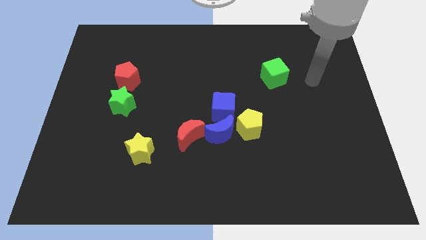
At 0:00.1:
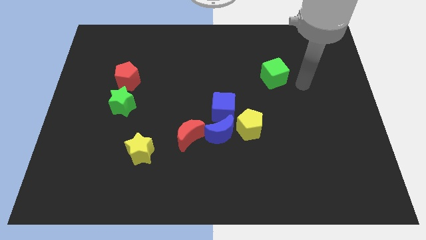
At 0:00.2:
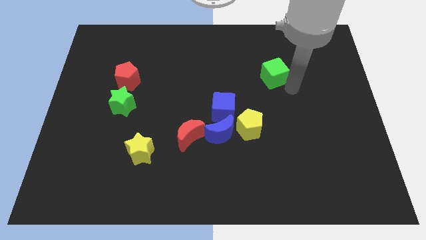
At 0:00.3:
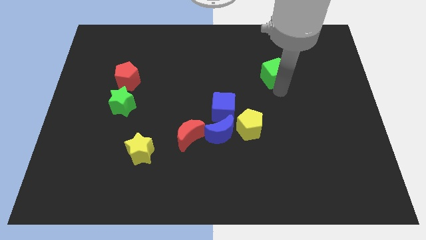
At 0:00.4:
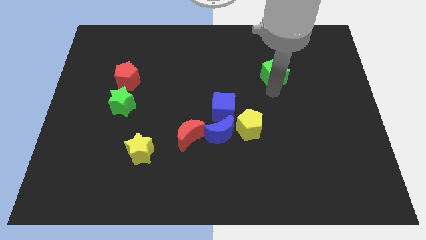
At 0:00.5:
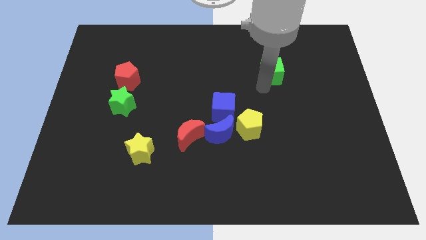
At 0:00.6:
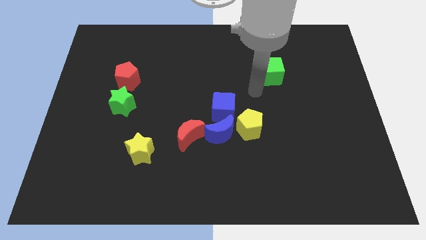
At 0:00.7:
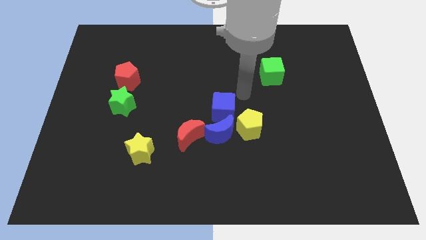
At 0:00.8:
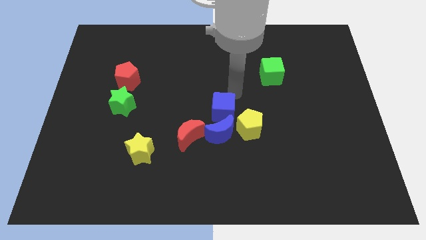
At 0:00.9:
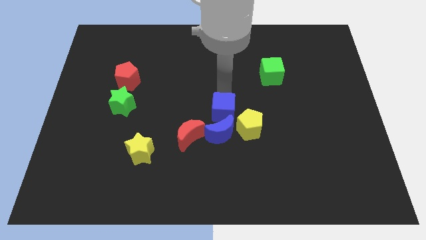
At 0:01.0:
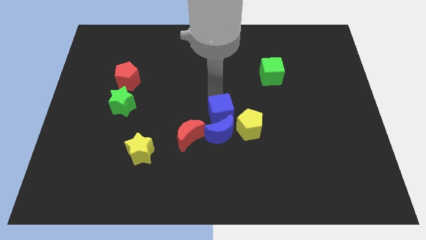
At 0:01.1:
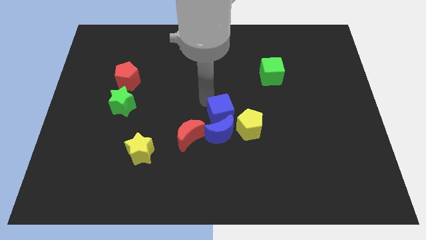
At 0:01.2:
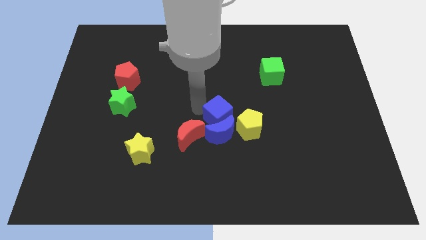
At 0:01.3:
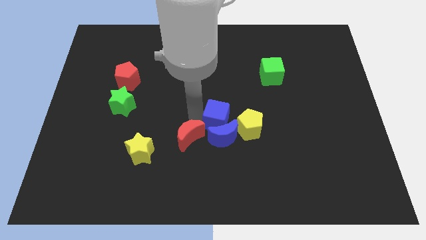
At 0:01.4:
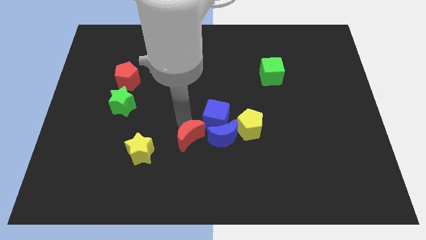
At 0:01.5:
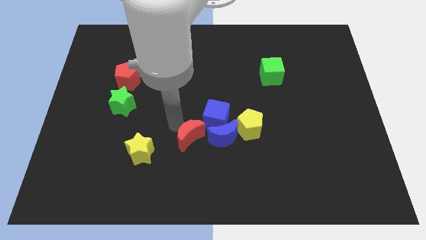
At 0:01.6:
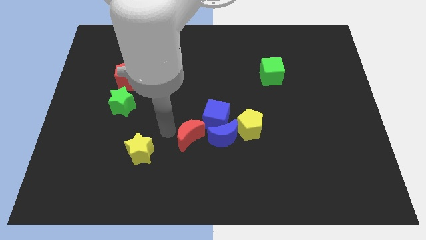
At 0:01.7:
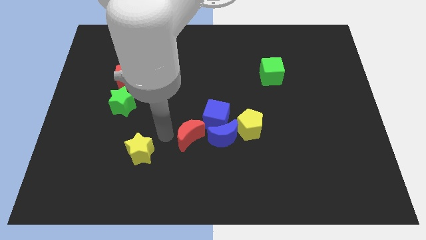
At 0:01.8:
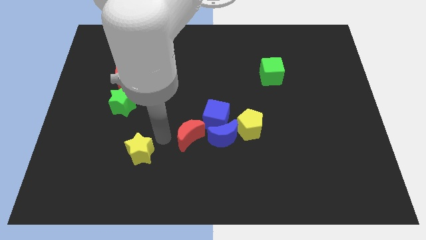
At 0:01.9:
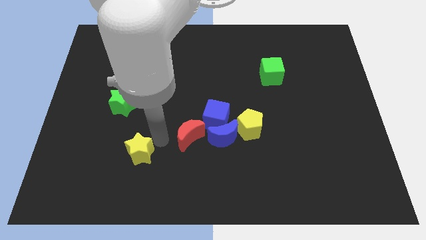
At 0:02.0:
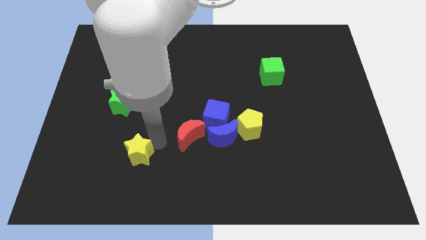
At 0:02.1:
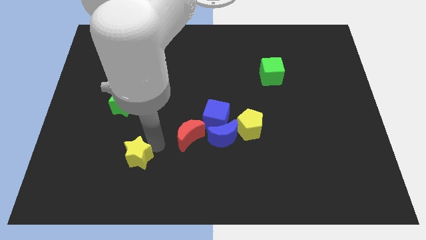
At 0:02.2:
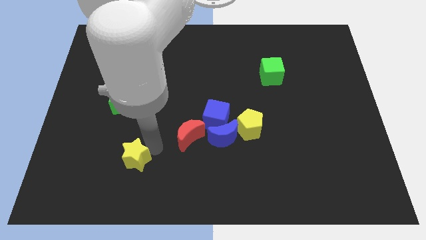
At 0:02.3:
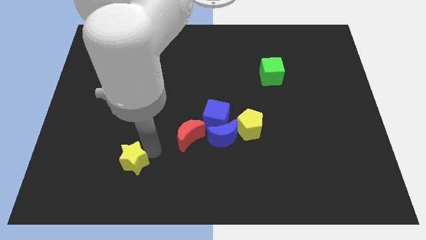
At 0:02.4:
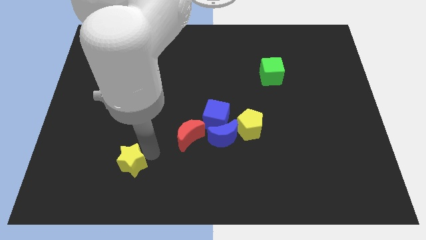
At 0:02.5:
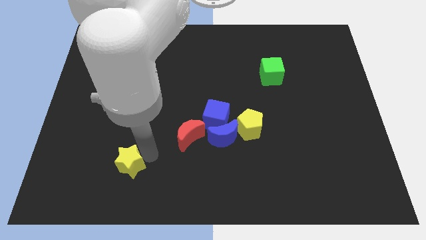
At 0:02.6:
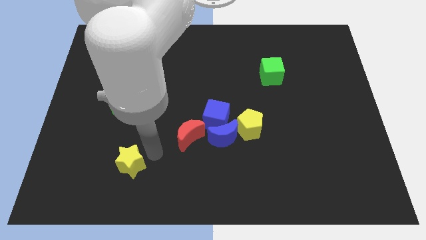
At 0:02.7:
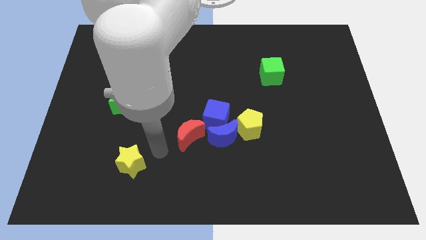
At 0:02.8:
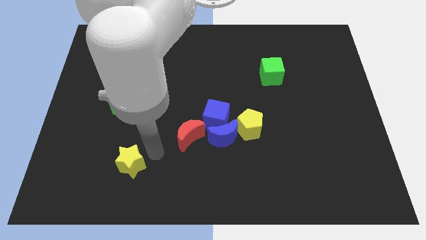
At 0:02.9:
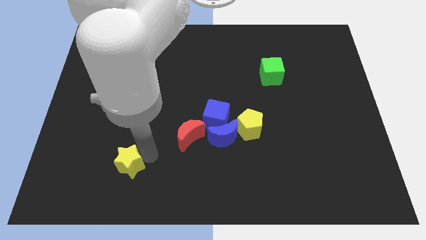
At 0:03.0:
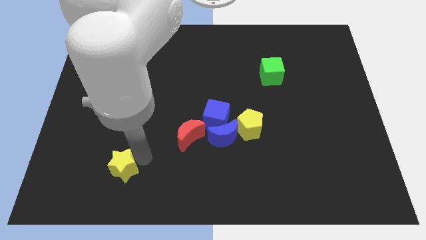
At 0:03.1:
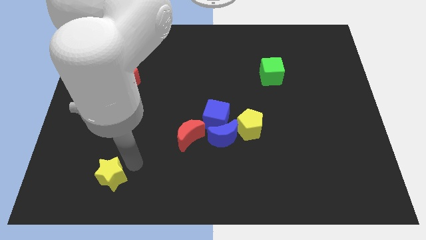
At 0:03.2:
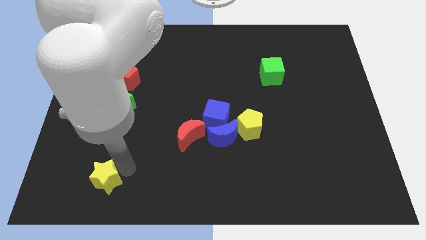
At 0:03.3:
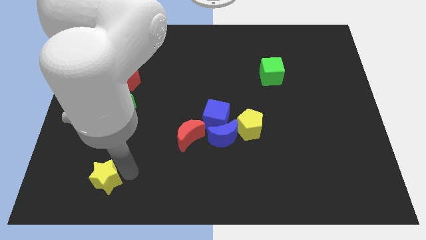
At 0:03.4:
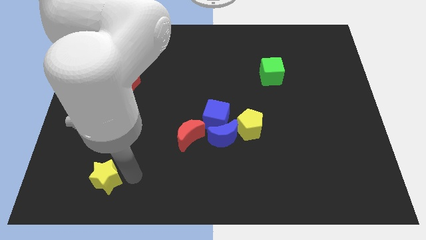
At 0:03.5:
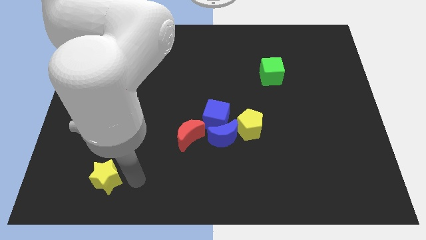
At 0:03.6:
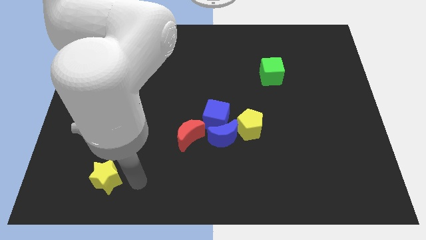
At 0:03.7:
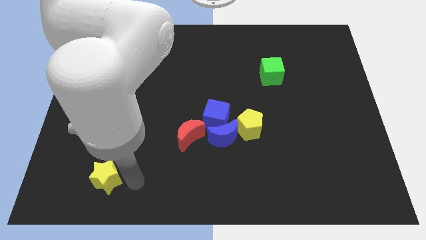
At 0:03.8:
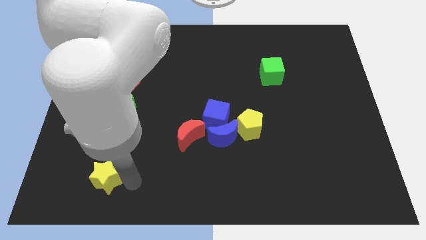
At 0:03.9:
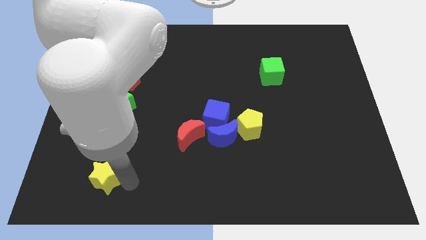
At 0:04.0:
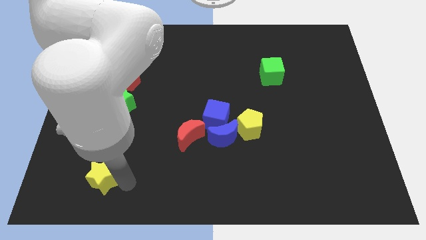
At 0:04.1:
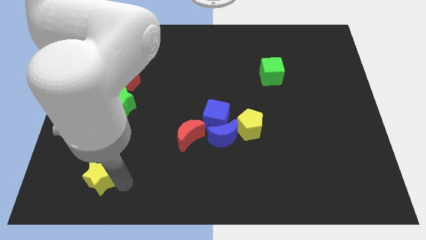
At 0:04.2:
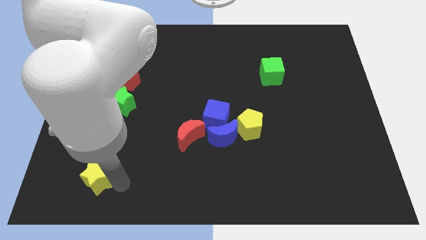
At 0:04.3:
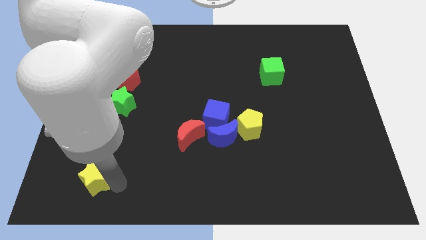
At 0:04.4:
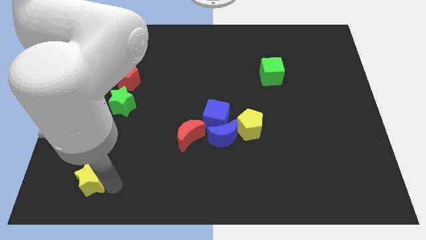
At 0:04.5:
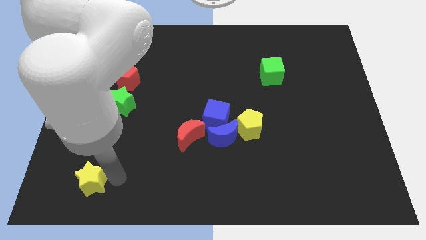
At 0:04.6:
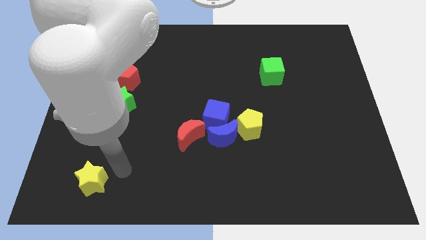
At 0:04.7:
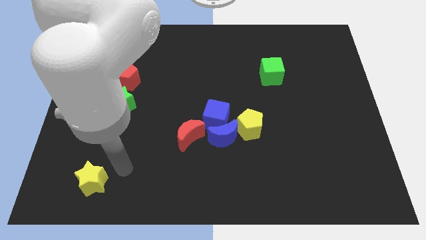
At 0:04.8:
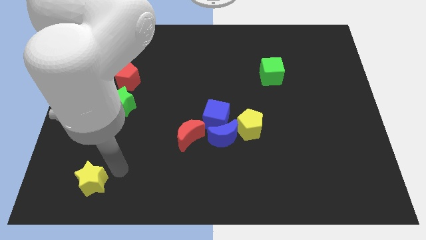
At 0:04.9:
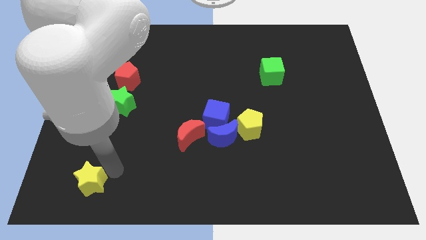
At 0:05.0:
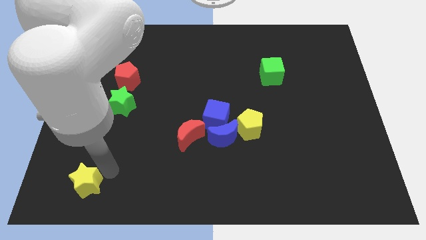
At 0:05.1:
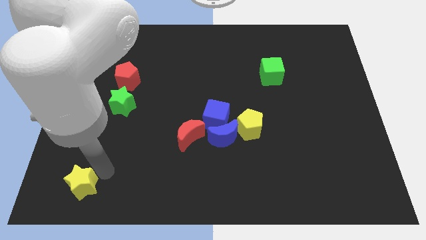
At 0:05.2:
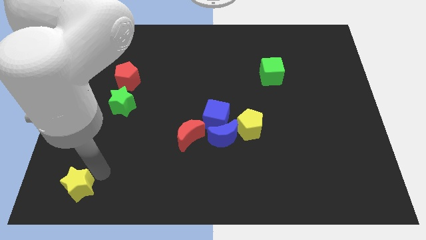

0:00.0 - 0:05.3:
slide the yellow star to the lower left corner

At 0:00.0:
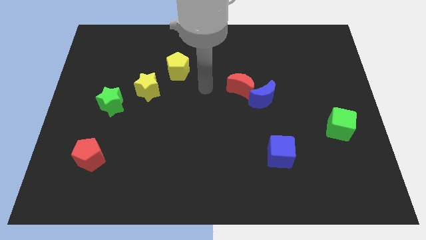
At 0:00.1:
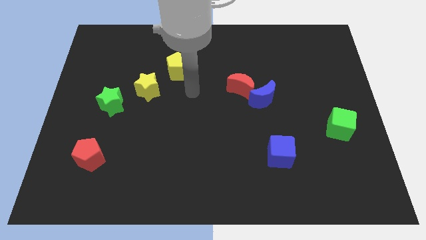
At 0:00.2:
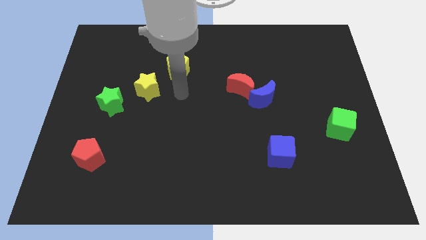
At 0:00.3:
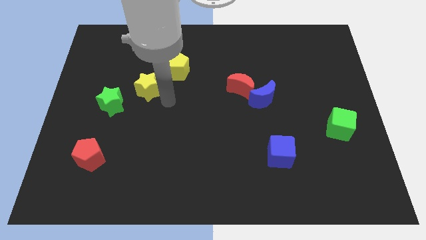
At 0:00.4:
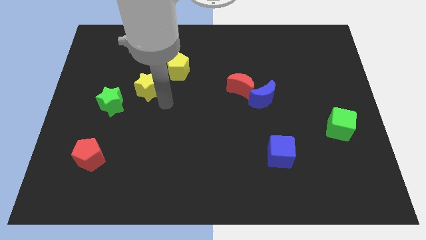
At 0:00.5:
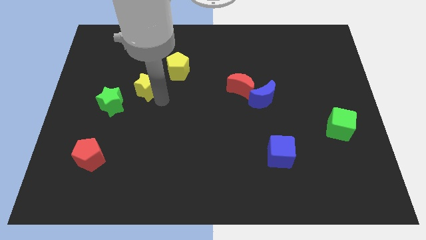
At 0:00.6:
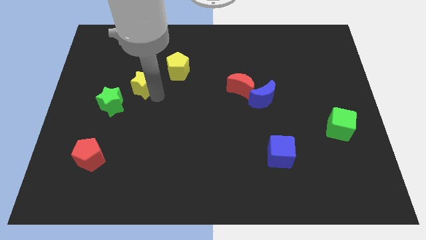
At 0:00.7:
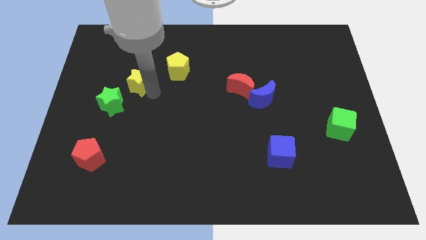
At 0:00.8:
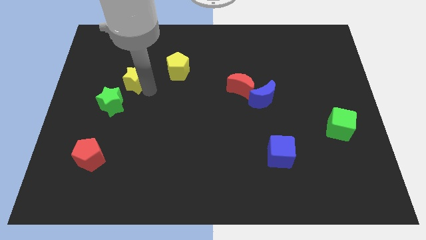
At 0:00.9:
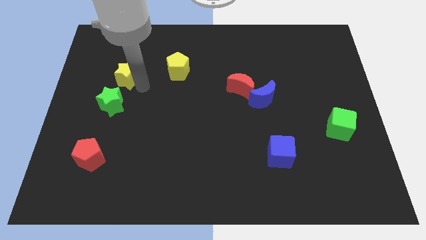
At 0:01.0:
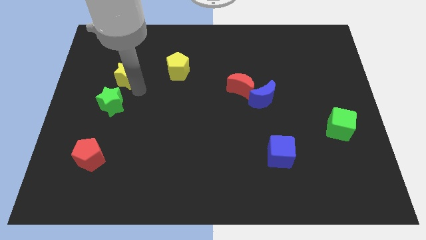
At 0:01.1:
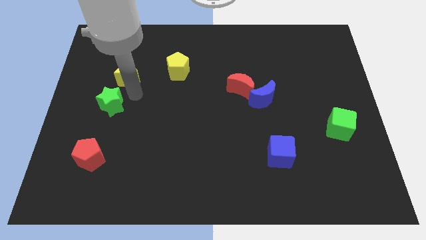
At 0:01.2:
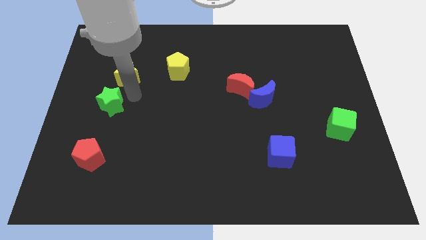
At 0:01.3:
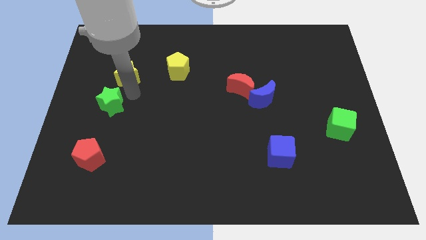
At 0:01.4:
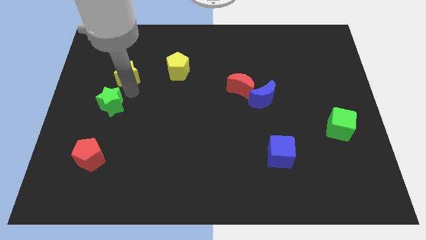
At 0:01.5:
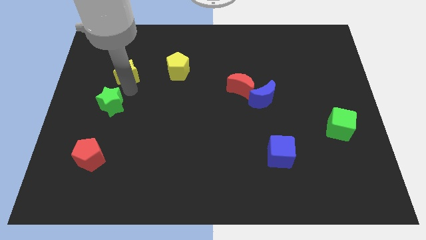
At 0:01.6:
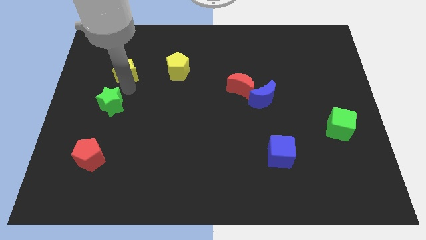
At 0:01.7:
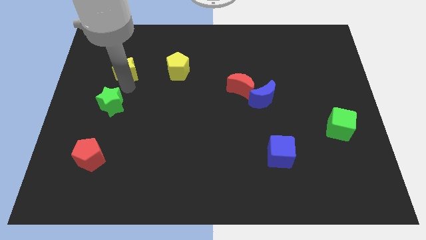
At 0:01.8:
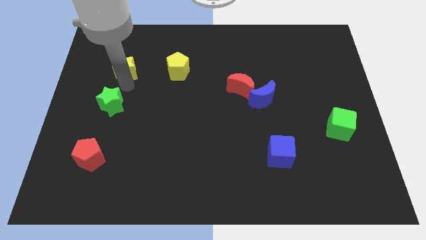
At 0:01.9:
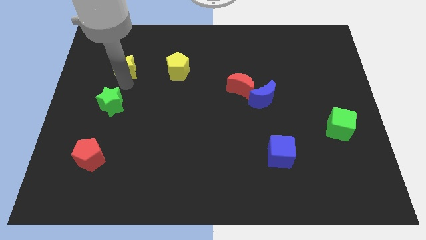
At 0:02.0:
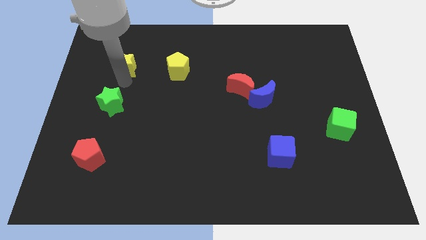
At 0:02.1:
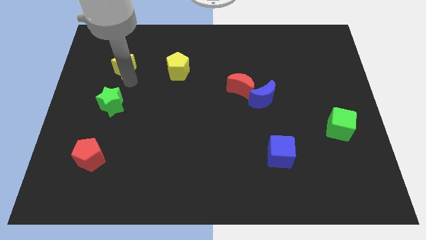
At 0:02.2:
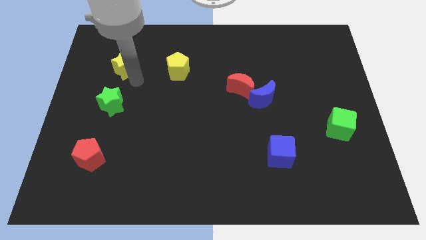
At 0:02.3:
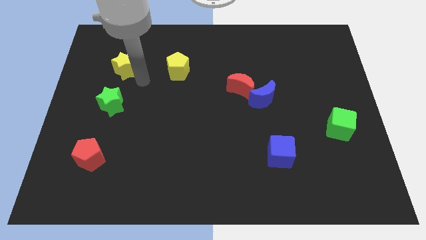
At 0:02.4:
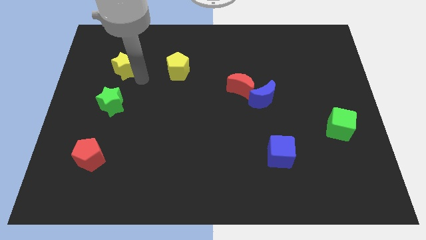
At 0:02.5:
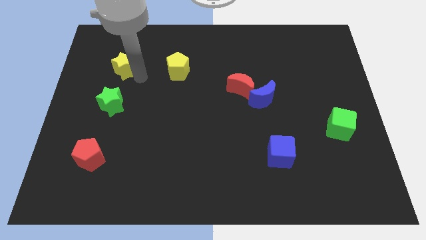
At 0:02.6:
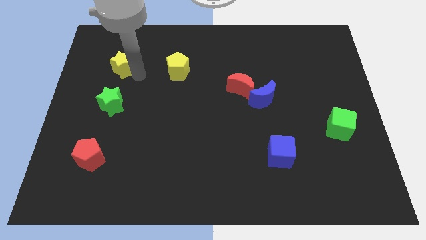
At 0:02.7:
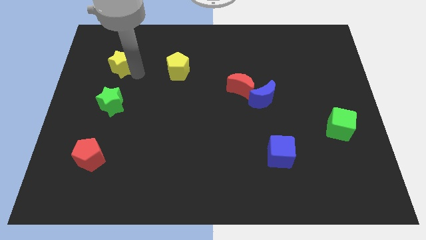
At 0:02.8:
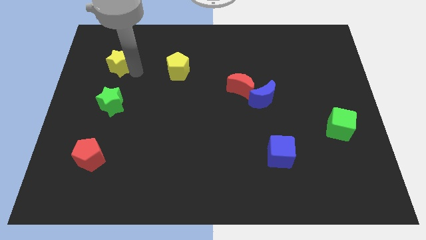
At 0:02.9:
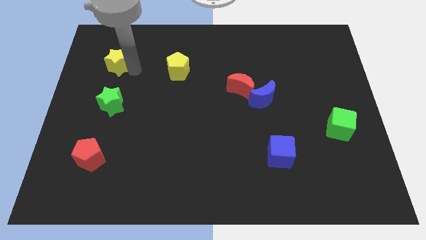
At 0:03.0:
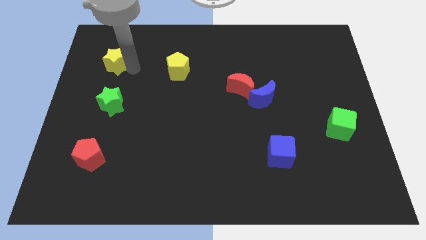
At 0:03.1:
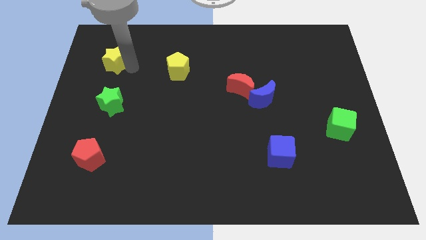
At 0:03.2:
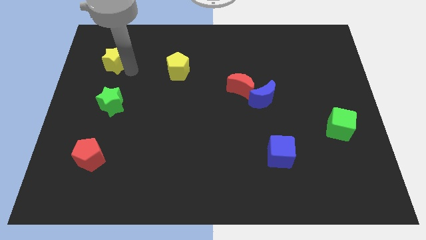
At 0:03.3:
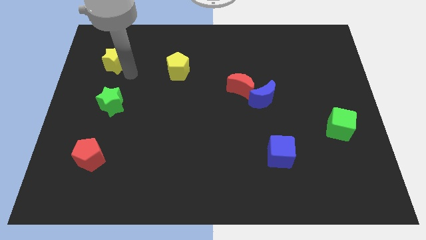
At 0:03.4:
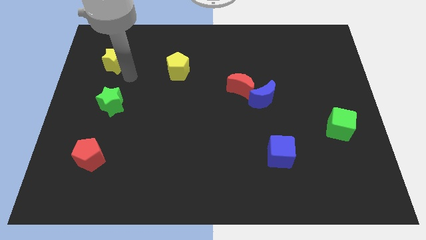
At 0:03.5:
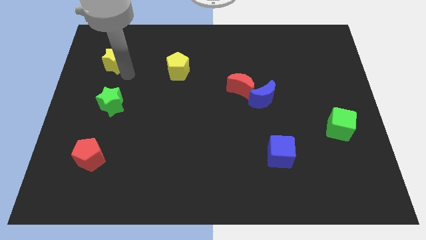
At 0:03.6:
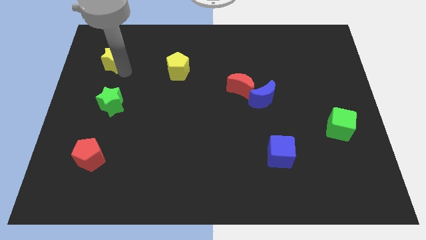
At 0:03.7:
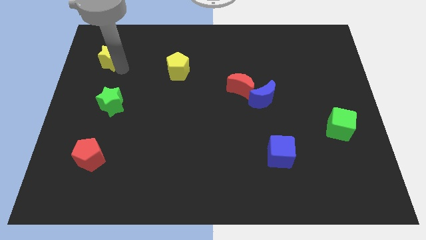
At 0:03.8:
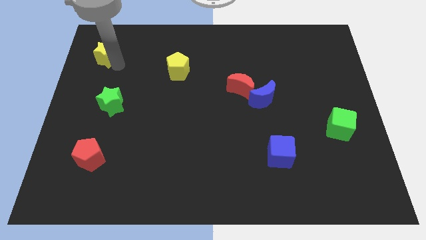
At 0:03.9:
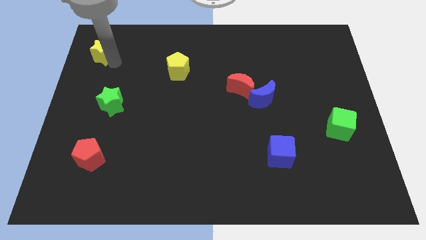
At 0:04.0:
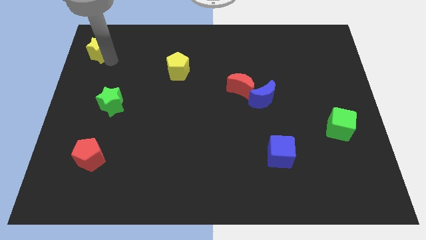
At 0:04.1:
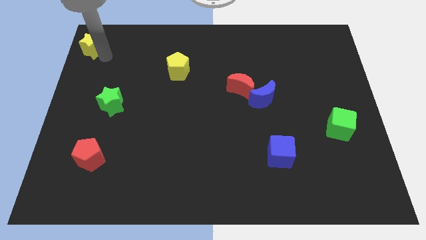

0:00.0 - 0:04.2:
push the yellow star to the upper left corner
